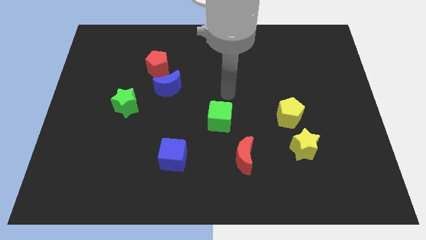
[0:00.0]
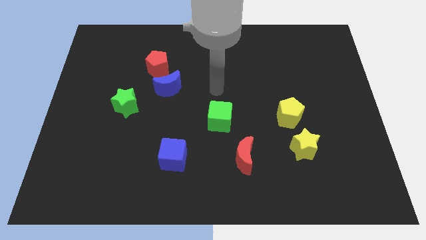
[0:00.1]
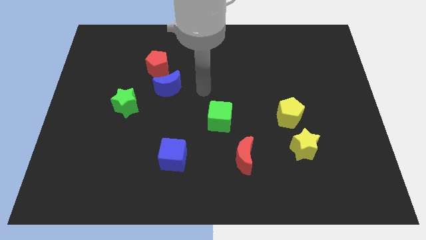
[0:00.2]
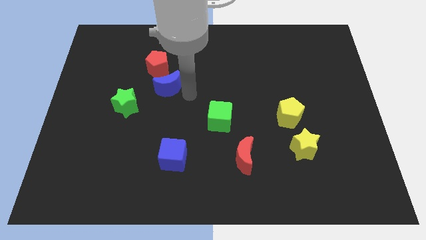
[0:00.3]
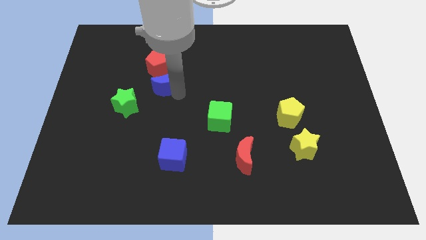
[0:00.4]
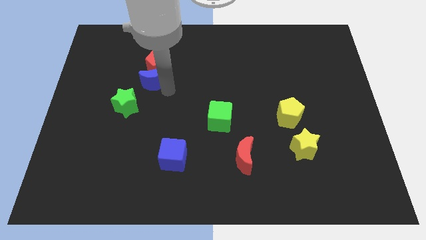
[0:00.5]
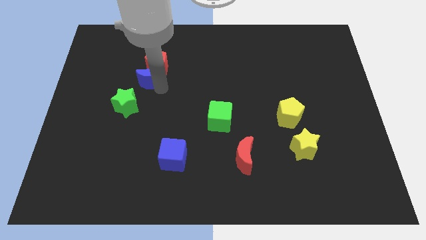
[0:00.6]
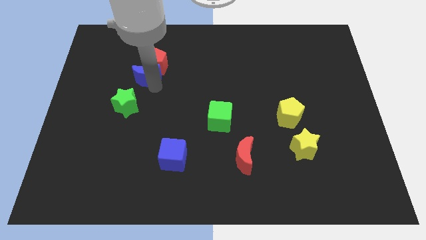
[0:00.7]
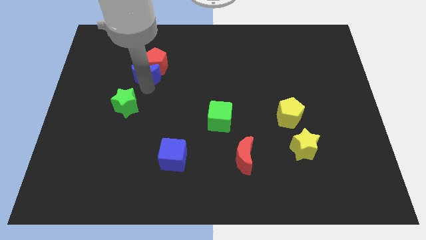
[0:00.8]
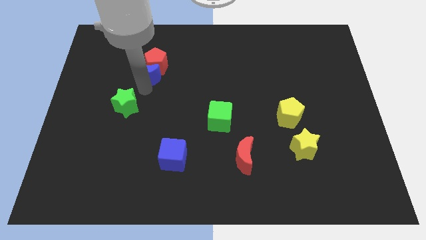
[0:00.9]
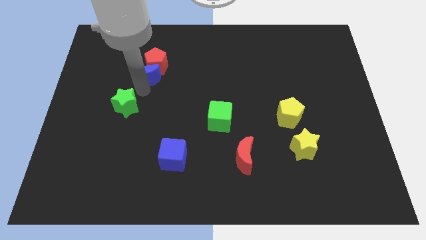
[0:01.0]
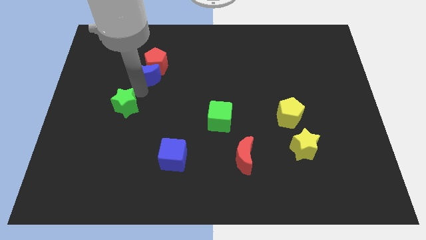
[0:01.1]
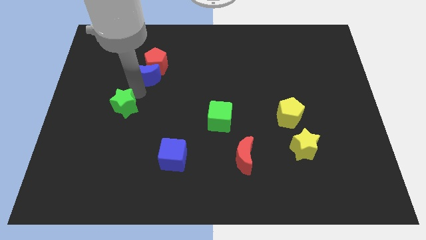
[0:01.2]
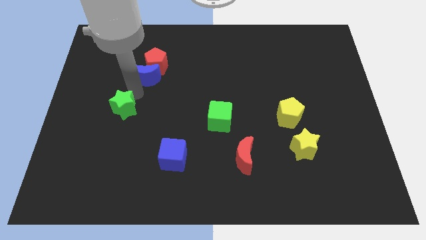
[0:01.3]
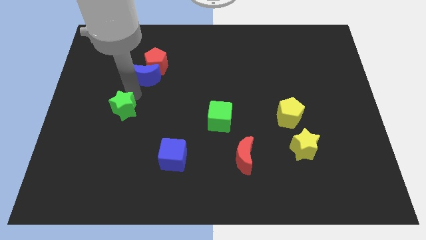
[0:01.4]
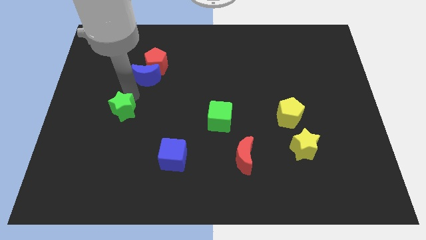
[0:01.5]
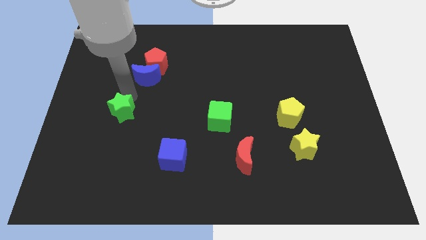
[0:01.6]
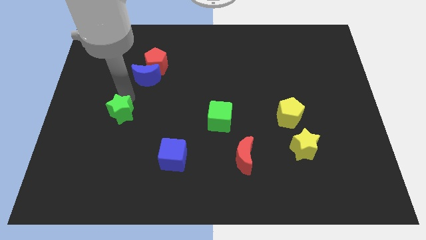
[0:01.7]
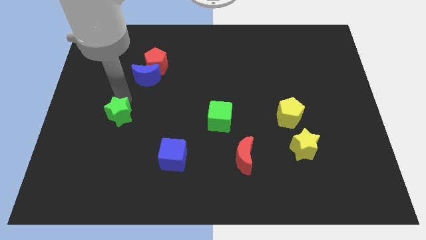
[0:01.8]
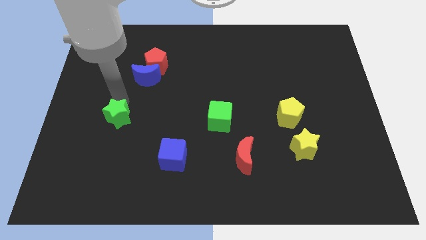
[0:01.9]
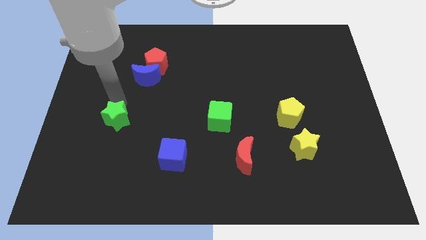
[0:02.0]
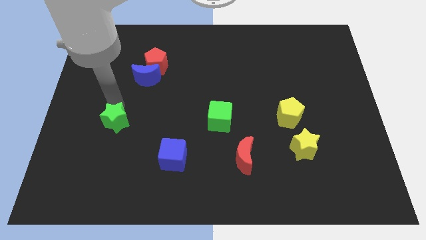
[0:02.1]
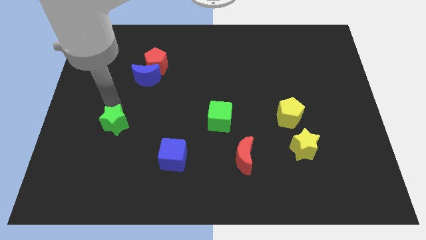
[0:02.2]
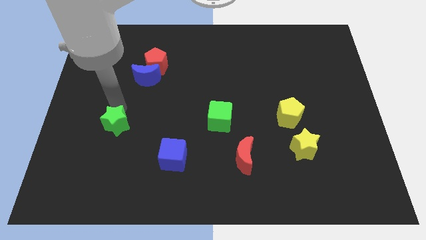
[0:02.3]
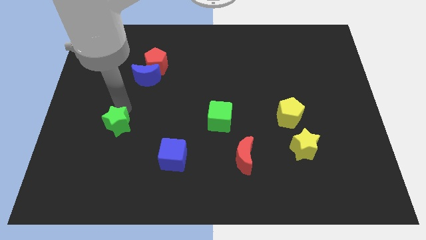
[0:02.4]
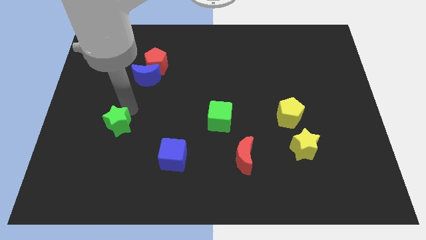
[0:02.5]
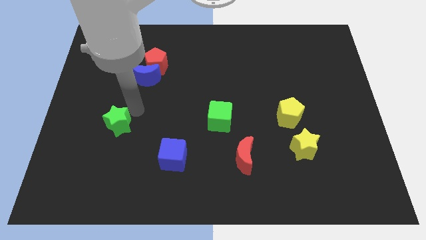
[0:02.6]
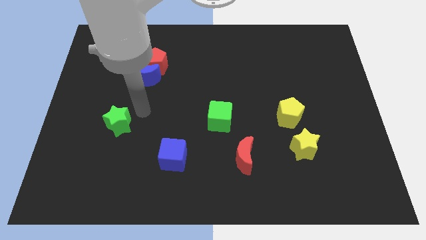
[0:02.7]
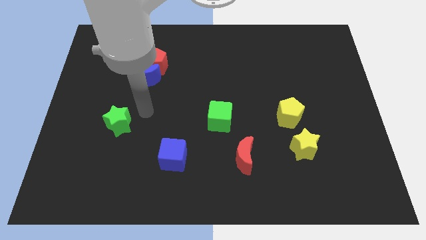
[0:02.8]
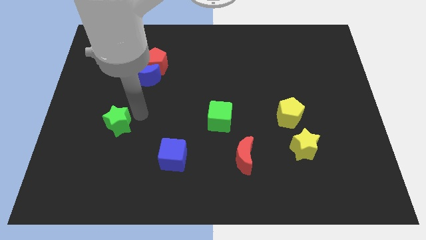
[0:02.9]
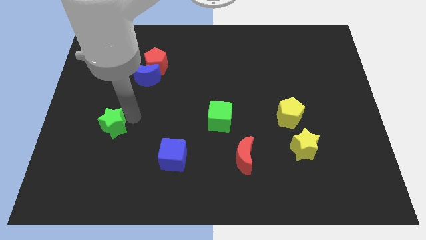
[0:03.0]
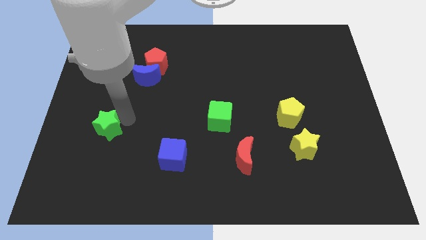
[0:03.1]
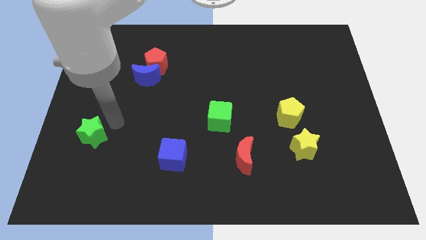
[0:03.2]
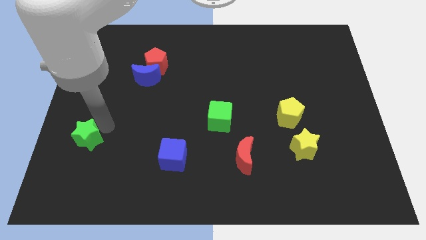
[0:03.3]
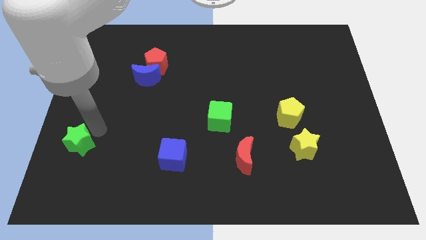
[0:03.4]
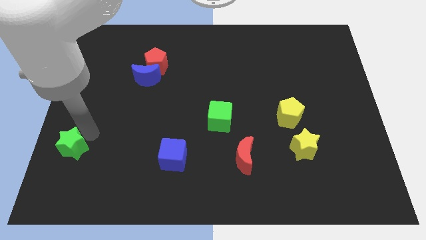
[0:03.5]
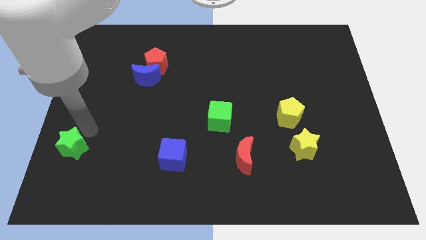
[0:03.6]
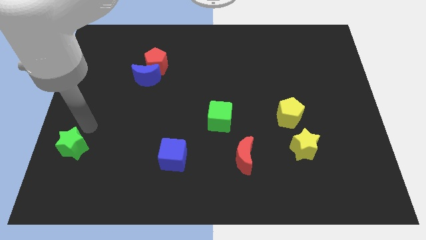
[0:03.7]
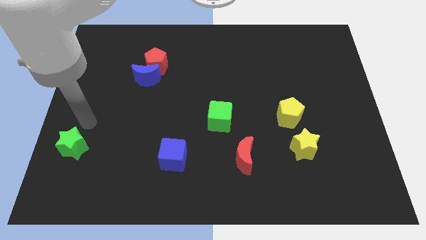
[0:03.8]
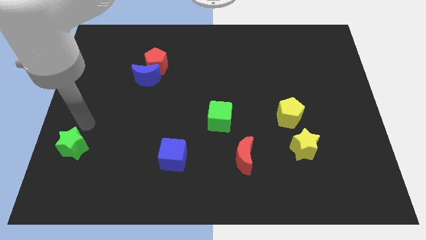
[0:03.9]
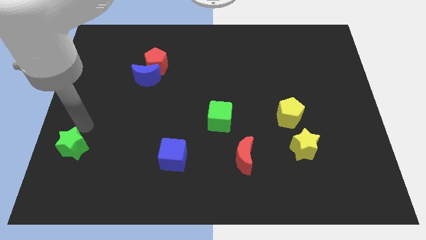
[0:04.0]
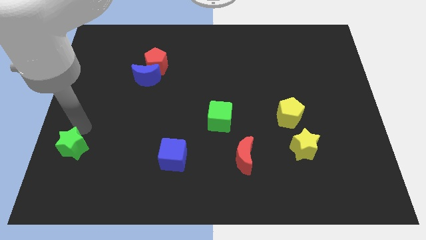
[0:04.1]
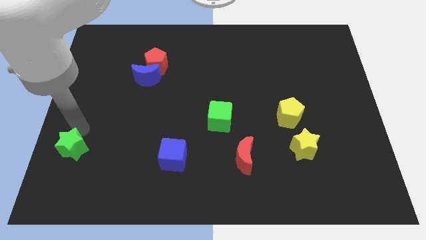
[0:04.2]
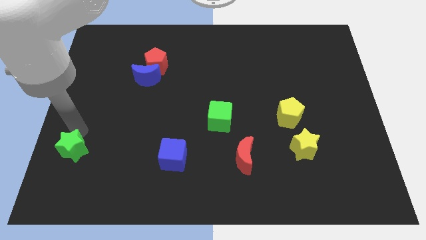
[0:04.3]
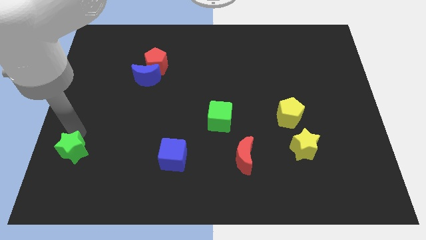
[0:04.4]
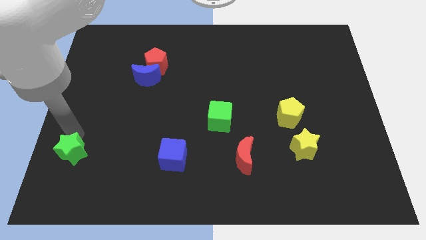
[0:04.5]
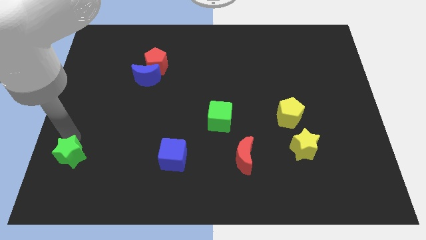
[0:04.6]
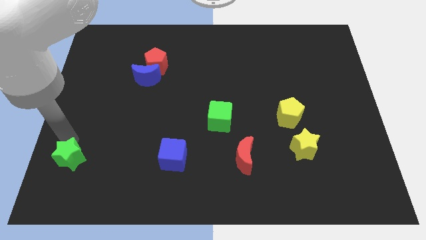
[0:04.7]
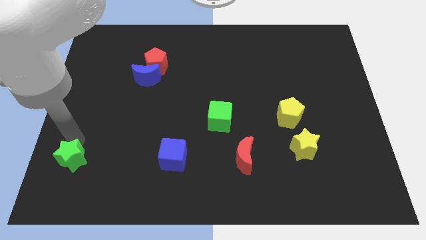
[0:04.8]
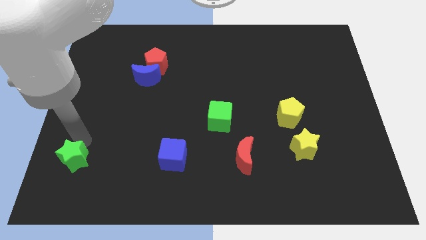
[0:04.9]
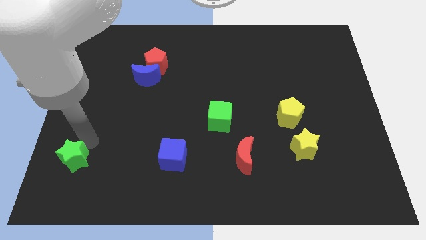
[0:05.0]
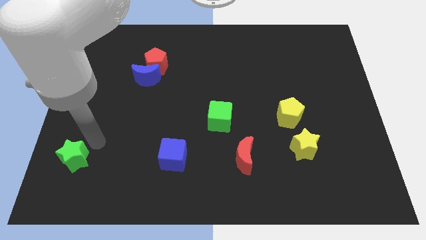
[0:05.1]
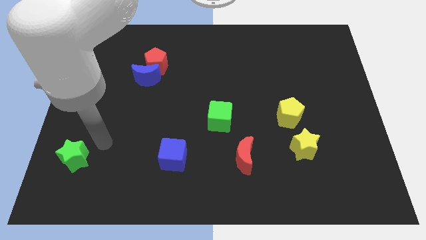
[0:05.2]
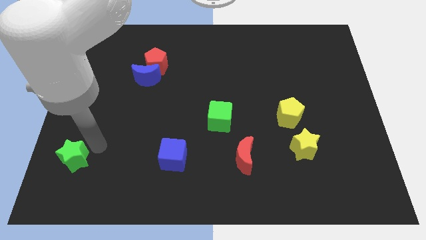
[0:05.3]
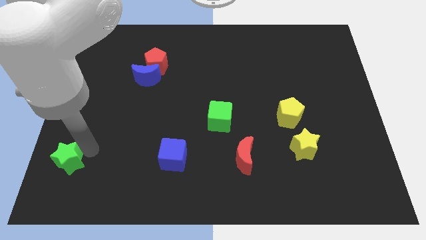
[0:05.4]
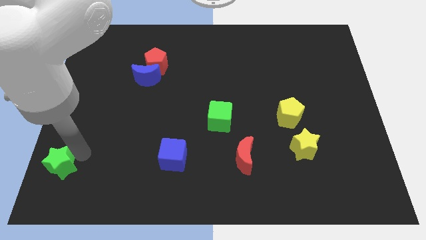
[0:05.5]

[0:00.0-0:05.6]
push the green star to the bottom left
